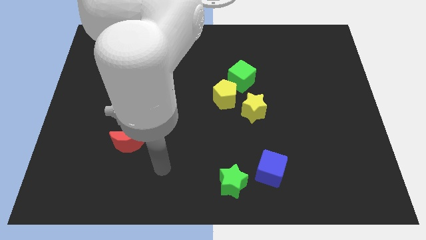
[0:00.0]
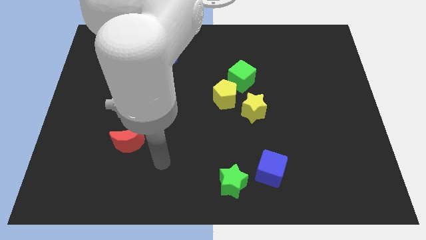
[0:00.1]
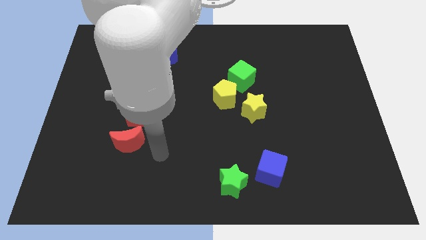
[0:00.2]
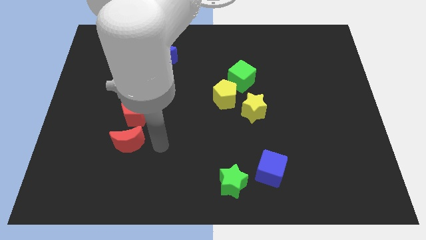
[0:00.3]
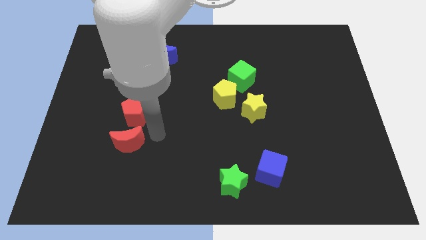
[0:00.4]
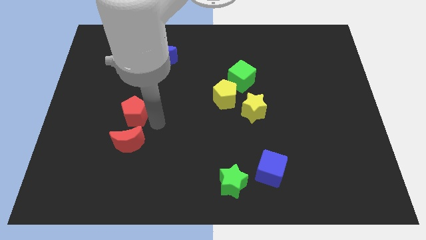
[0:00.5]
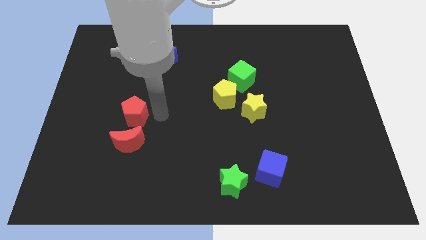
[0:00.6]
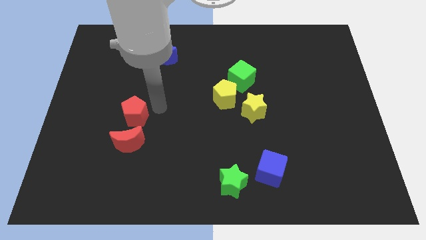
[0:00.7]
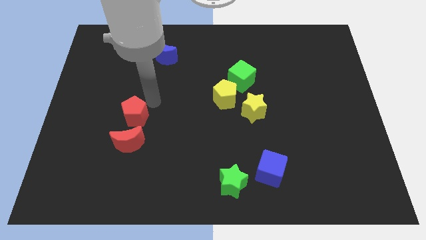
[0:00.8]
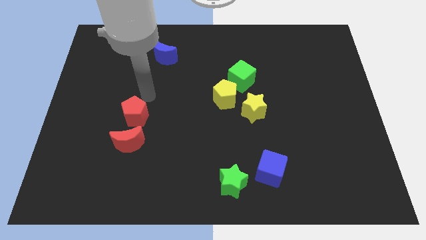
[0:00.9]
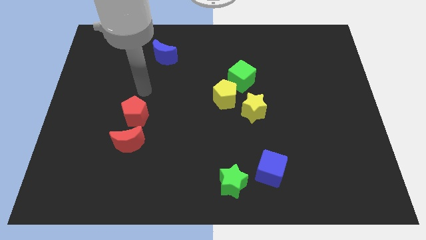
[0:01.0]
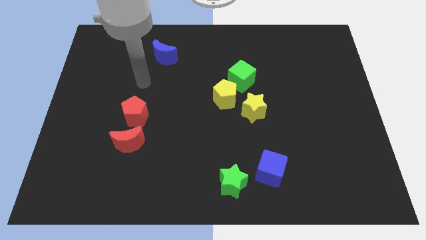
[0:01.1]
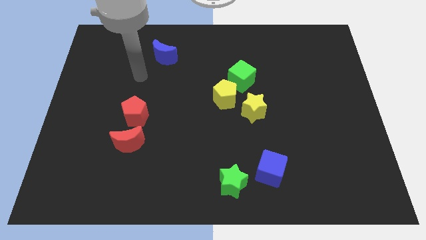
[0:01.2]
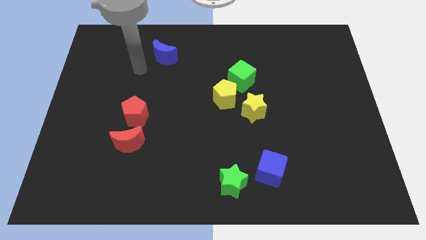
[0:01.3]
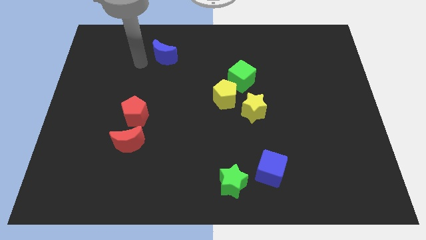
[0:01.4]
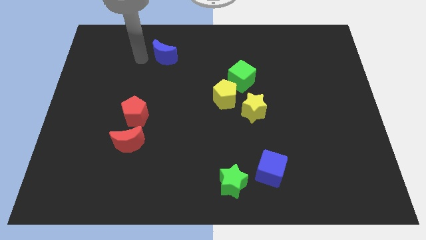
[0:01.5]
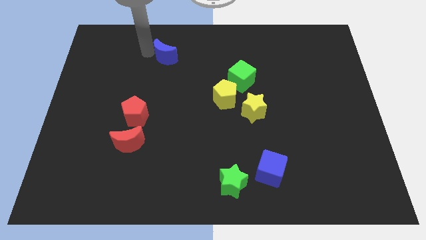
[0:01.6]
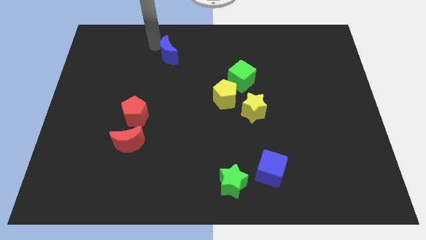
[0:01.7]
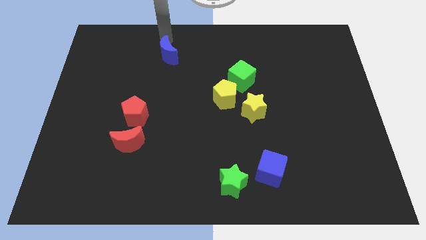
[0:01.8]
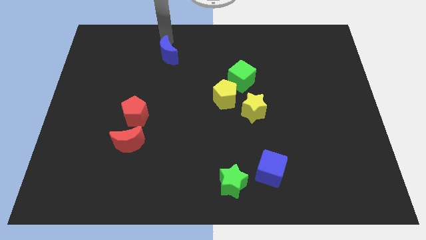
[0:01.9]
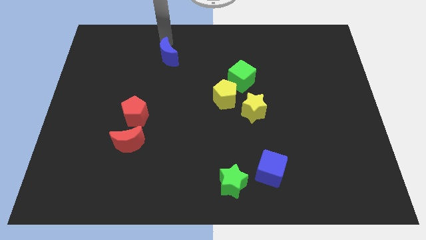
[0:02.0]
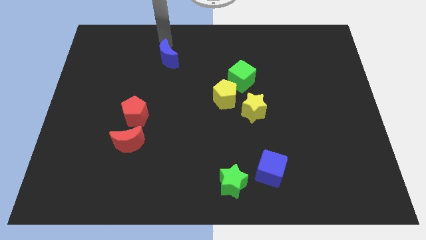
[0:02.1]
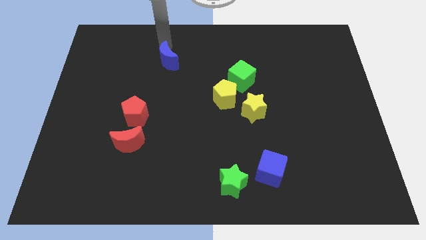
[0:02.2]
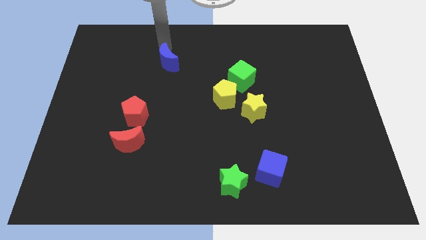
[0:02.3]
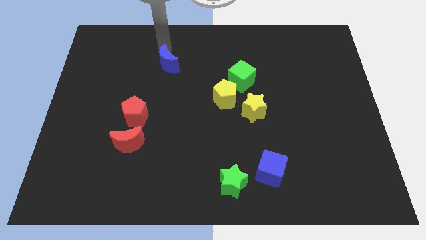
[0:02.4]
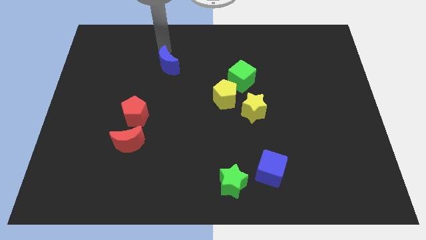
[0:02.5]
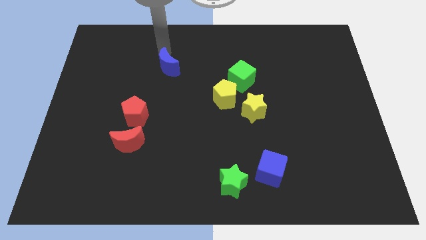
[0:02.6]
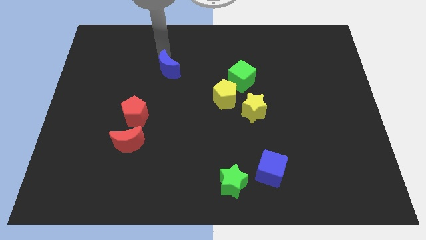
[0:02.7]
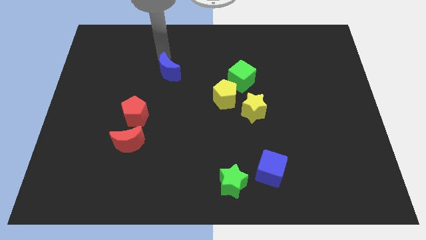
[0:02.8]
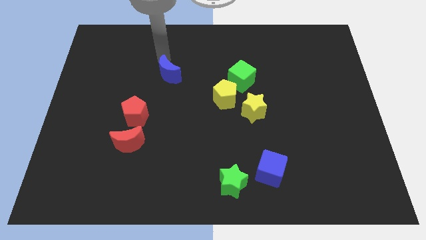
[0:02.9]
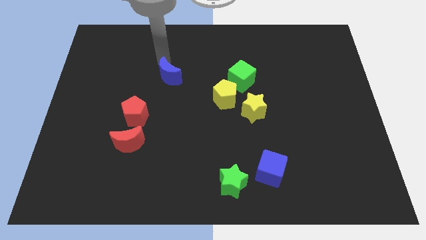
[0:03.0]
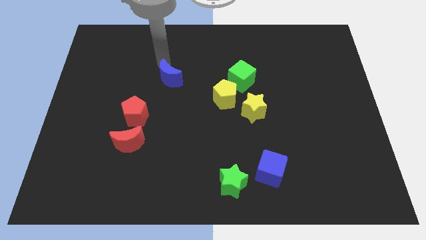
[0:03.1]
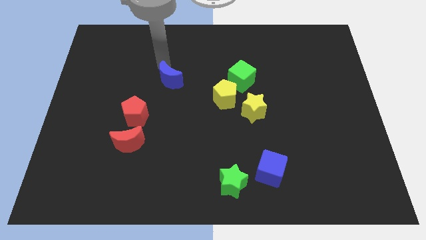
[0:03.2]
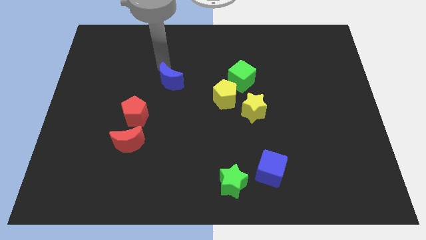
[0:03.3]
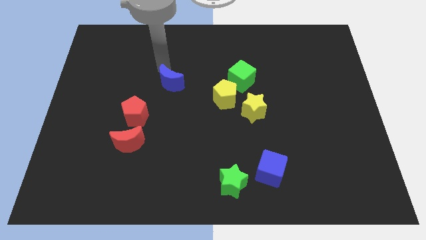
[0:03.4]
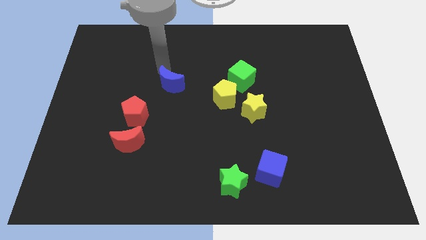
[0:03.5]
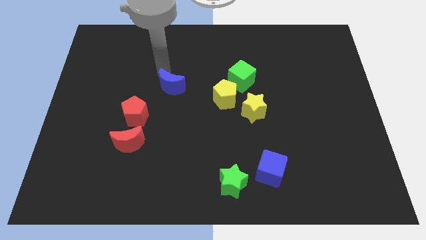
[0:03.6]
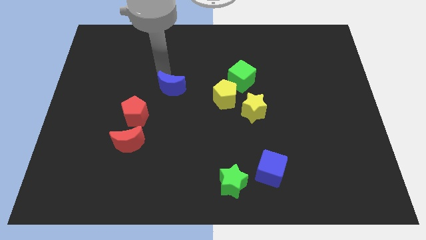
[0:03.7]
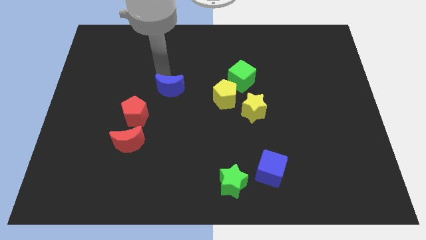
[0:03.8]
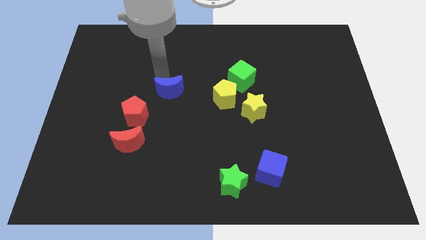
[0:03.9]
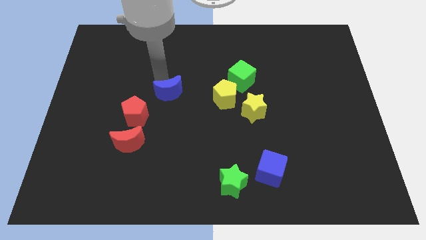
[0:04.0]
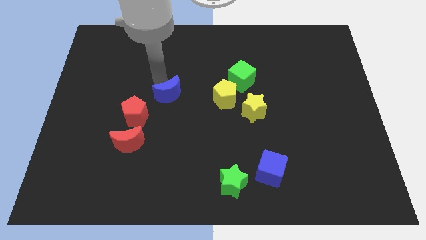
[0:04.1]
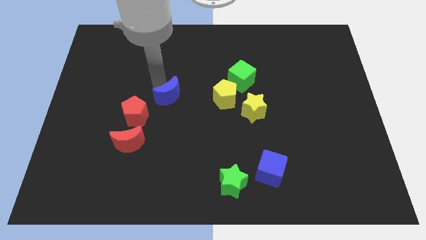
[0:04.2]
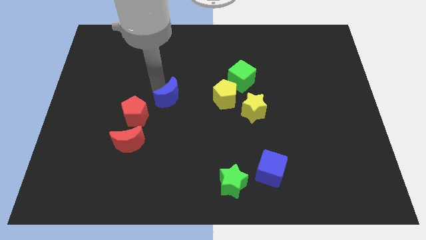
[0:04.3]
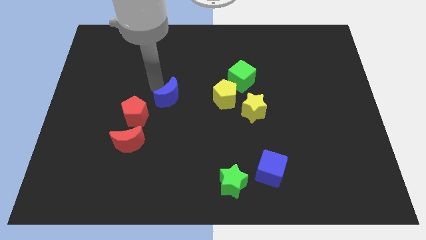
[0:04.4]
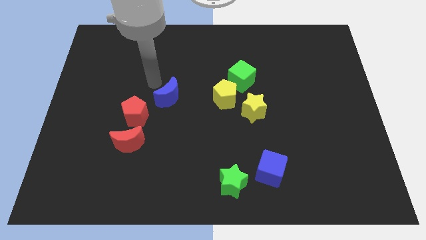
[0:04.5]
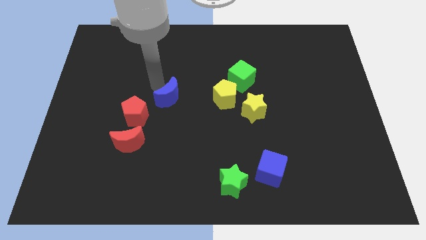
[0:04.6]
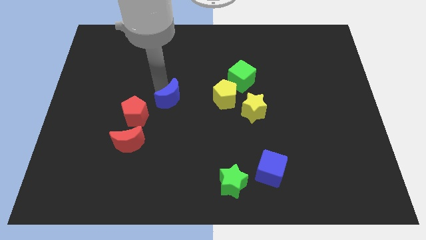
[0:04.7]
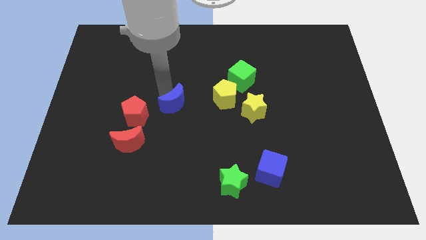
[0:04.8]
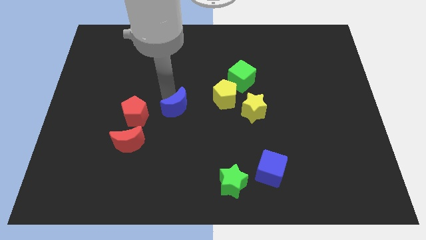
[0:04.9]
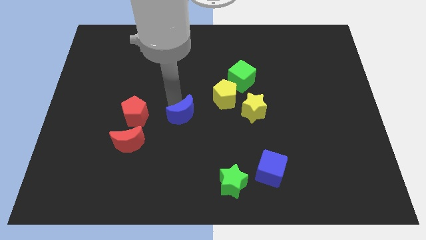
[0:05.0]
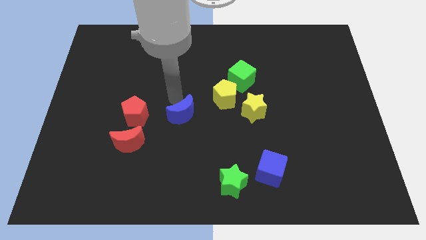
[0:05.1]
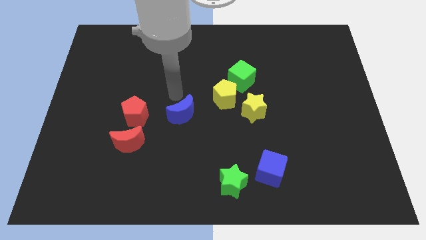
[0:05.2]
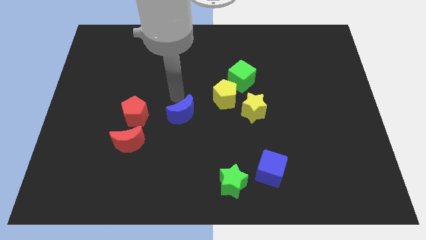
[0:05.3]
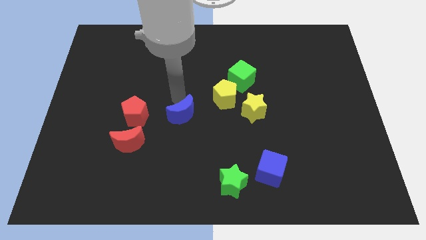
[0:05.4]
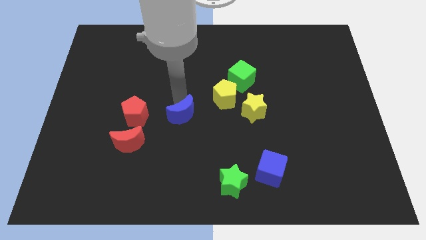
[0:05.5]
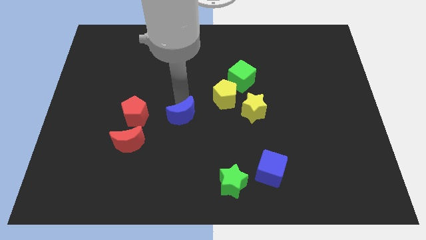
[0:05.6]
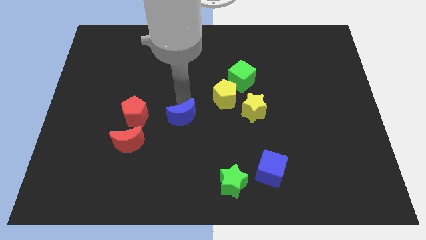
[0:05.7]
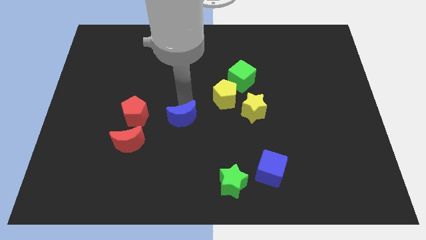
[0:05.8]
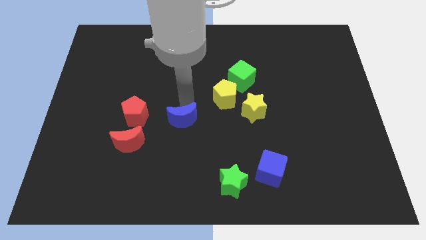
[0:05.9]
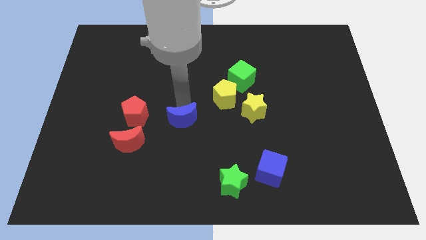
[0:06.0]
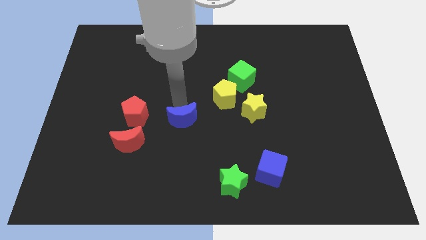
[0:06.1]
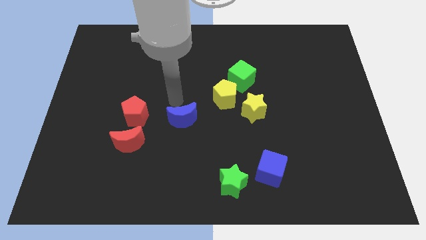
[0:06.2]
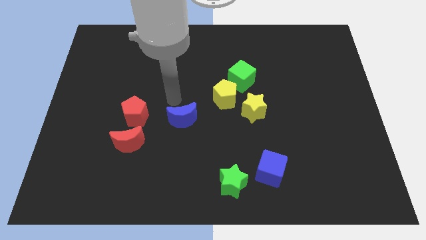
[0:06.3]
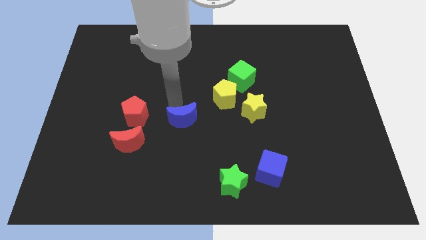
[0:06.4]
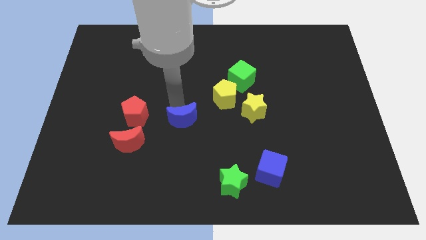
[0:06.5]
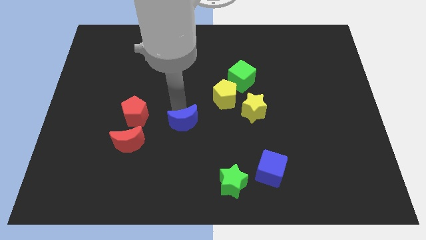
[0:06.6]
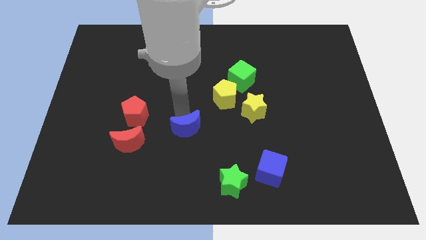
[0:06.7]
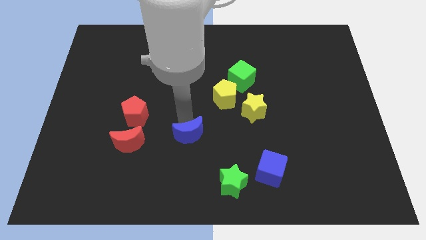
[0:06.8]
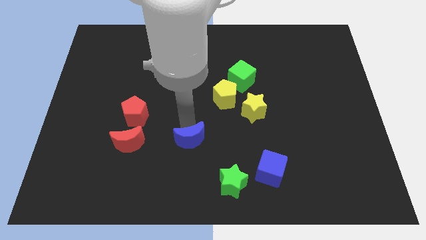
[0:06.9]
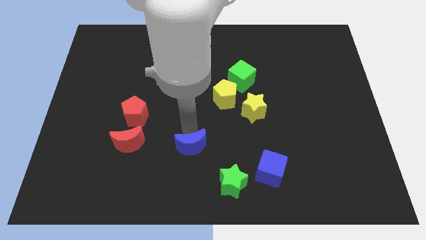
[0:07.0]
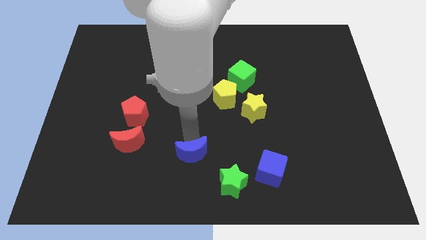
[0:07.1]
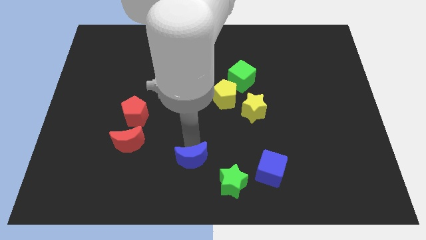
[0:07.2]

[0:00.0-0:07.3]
put the blue moon to the bottom
